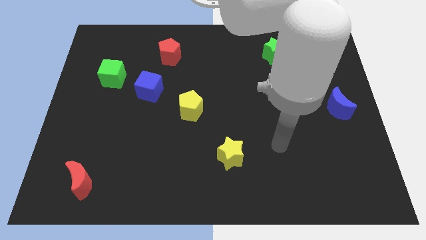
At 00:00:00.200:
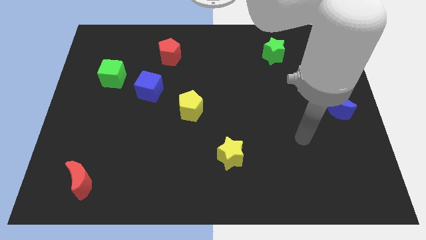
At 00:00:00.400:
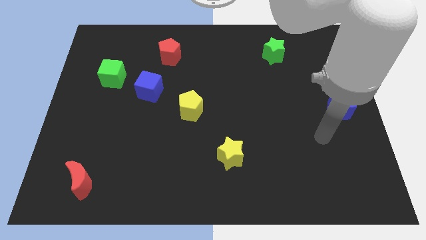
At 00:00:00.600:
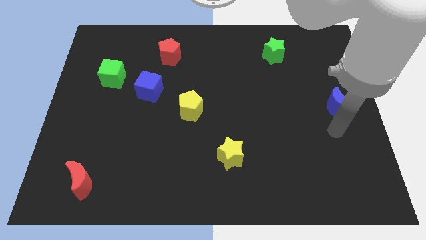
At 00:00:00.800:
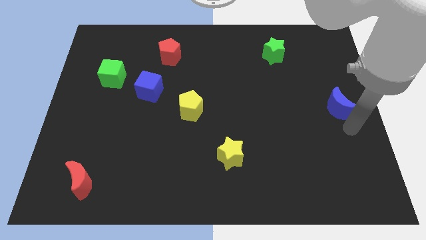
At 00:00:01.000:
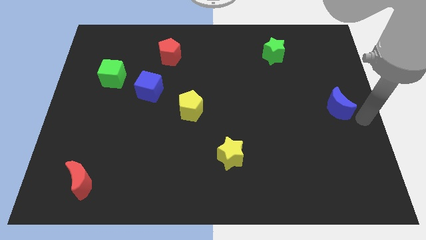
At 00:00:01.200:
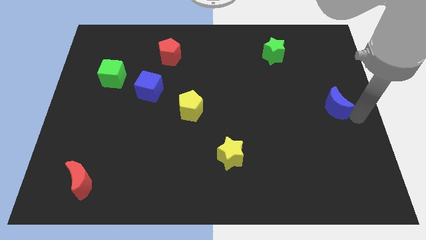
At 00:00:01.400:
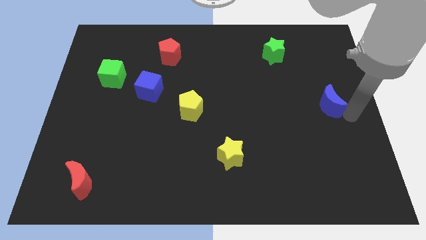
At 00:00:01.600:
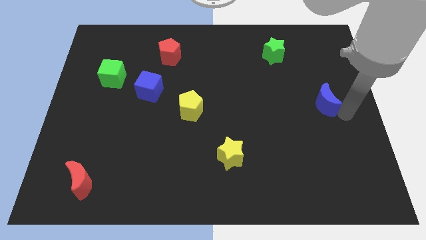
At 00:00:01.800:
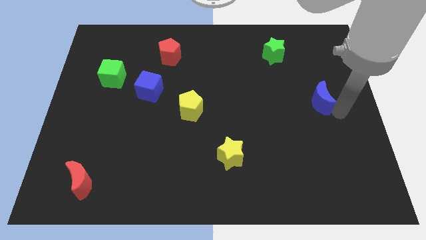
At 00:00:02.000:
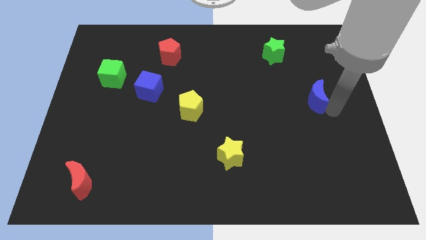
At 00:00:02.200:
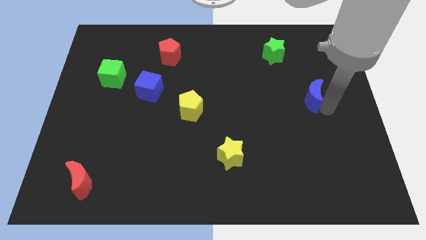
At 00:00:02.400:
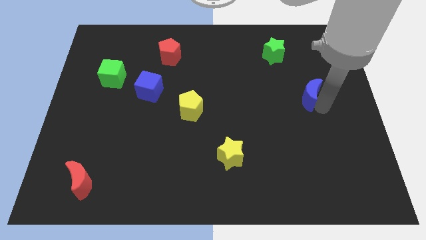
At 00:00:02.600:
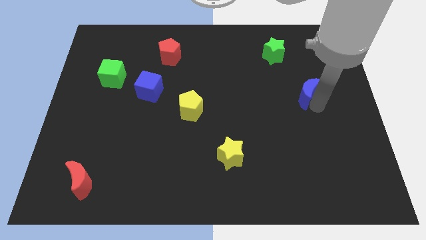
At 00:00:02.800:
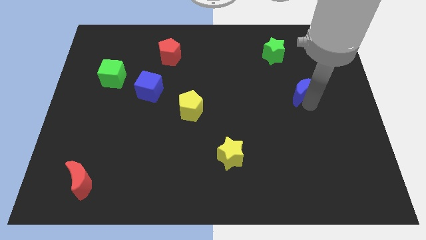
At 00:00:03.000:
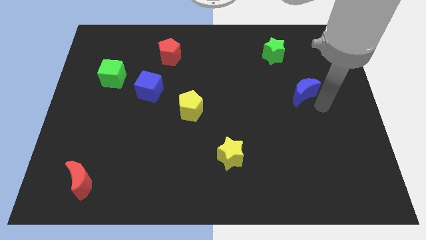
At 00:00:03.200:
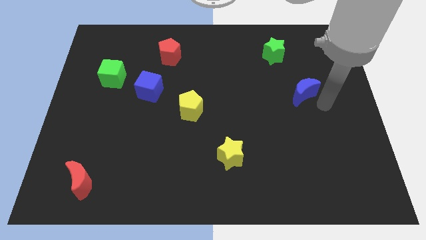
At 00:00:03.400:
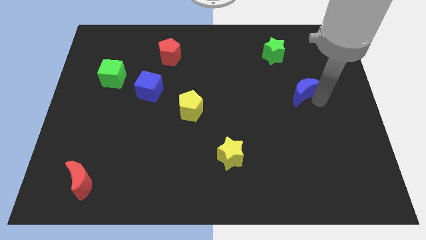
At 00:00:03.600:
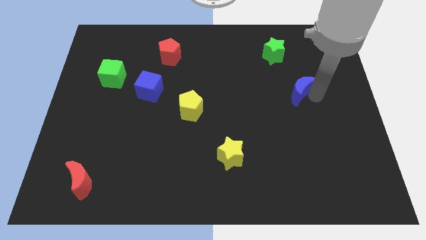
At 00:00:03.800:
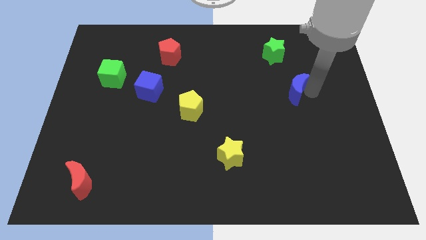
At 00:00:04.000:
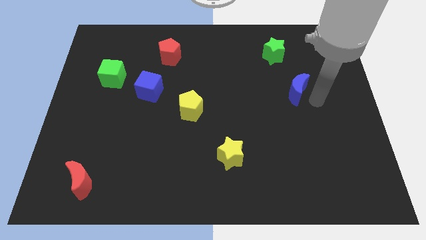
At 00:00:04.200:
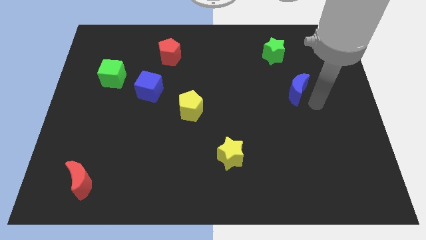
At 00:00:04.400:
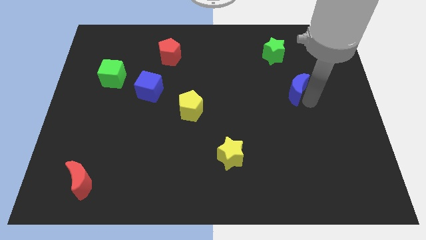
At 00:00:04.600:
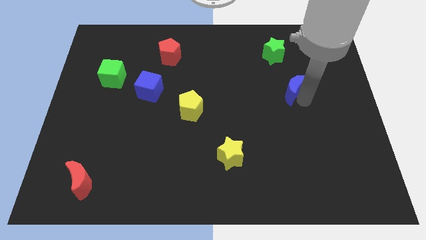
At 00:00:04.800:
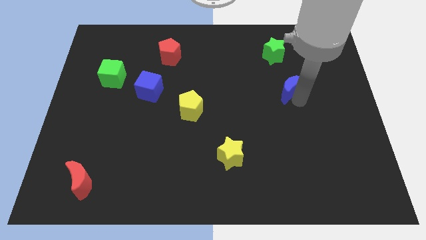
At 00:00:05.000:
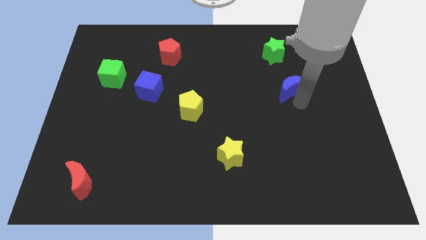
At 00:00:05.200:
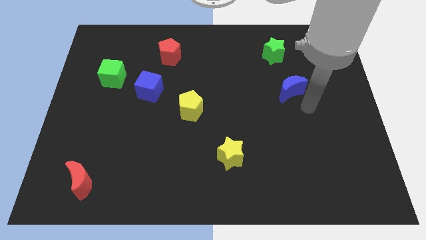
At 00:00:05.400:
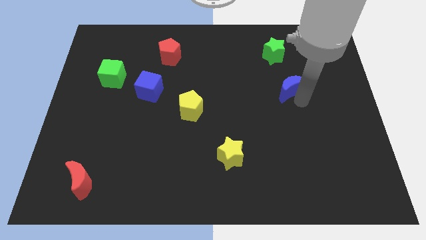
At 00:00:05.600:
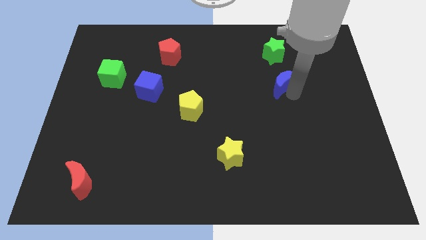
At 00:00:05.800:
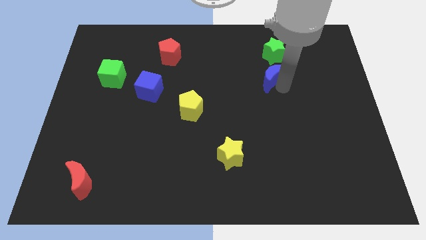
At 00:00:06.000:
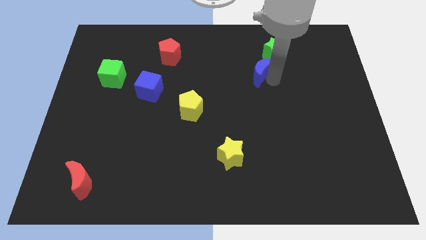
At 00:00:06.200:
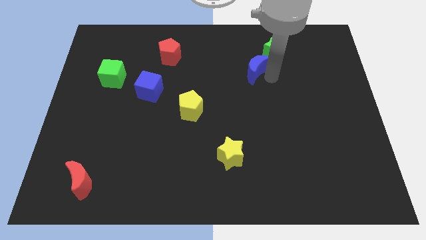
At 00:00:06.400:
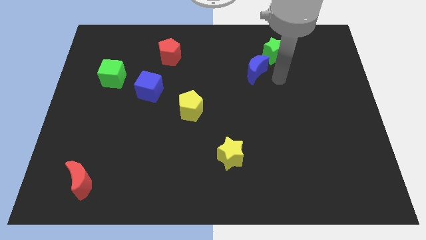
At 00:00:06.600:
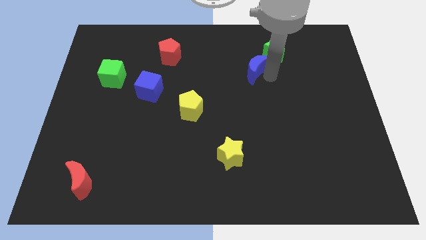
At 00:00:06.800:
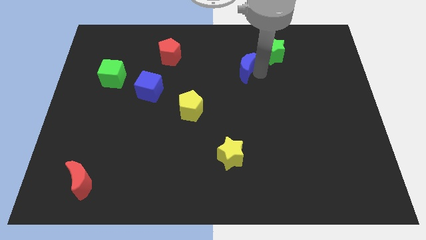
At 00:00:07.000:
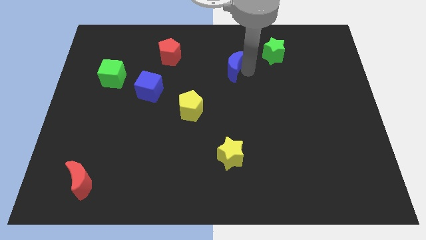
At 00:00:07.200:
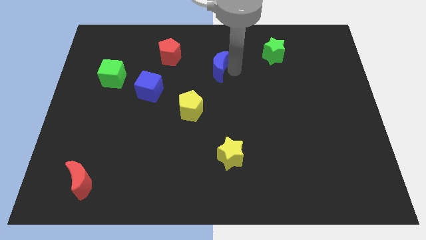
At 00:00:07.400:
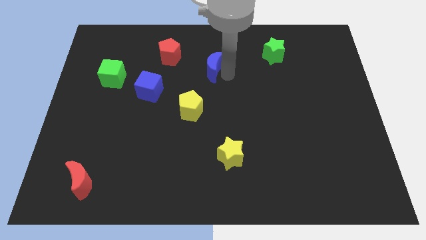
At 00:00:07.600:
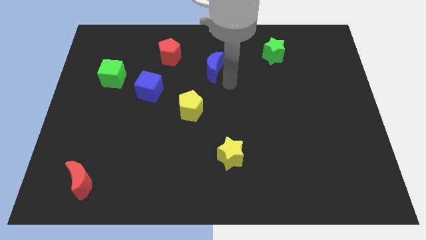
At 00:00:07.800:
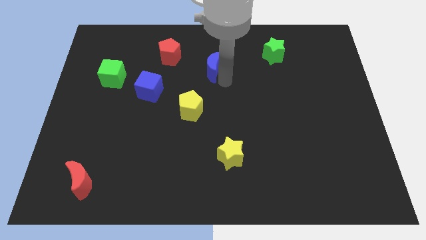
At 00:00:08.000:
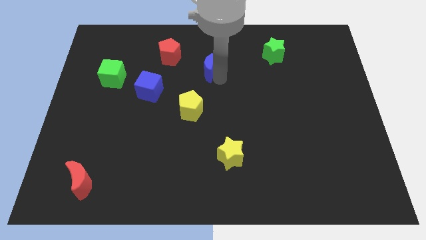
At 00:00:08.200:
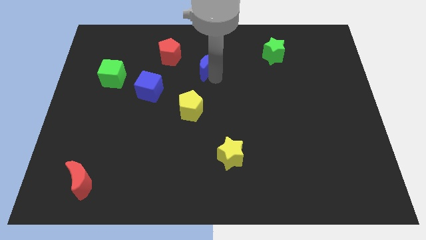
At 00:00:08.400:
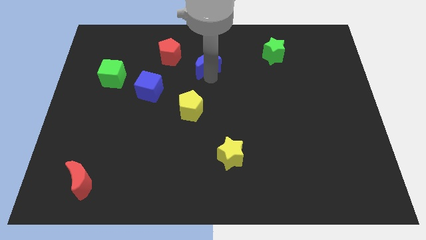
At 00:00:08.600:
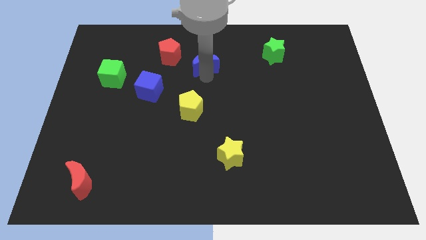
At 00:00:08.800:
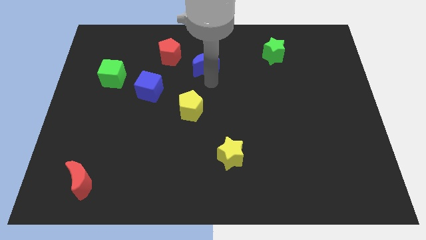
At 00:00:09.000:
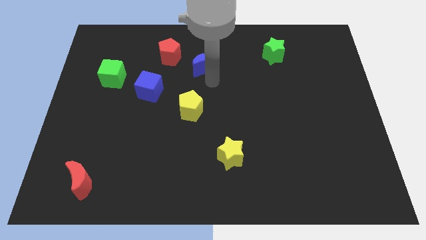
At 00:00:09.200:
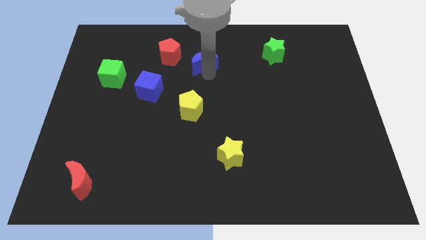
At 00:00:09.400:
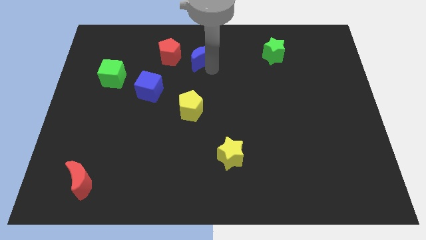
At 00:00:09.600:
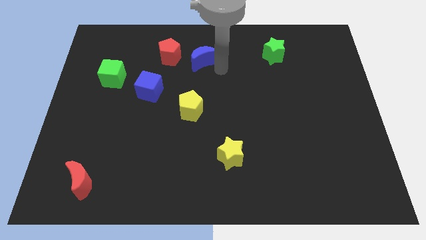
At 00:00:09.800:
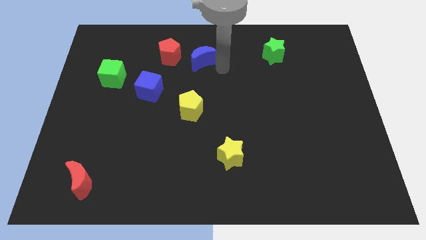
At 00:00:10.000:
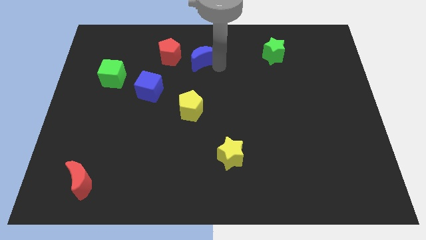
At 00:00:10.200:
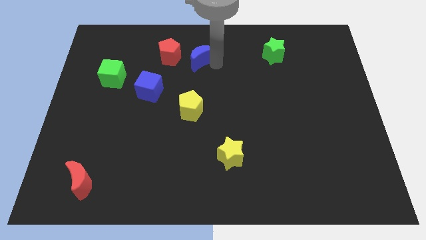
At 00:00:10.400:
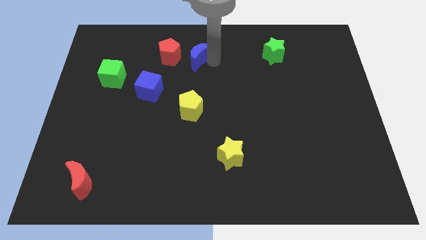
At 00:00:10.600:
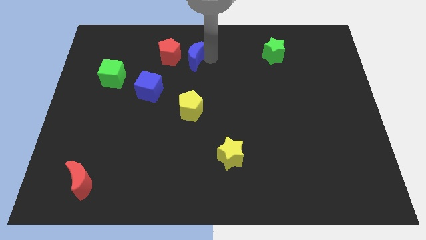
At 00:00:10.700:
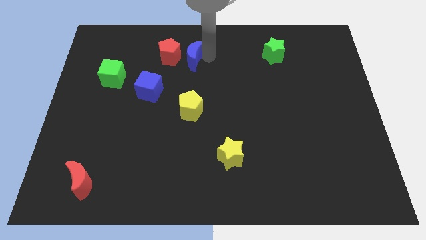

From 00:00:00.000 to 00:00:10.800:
slide the blue moon towards the red pentagon
